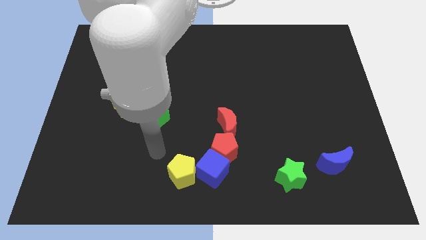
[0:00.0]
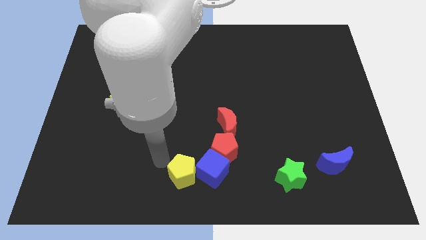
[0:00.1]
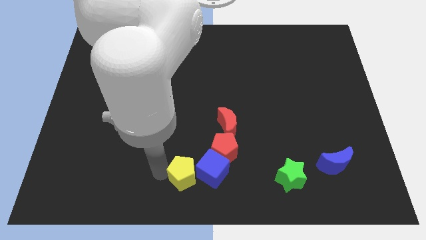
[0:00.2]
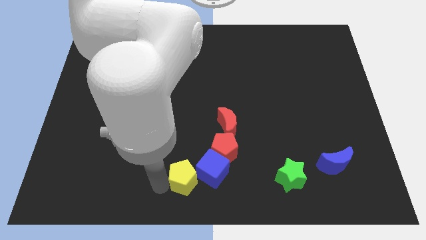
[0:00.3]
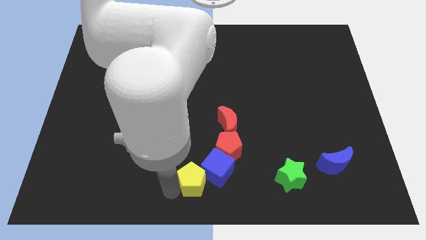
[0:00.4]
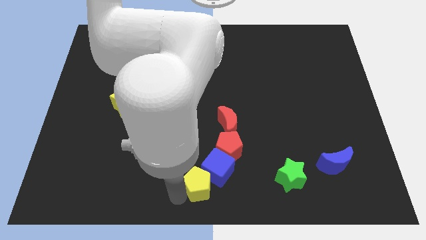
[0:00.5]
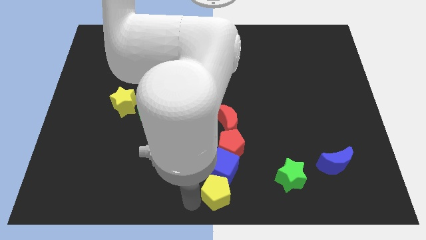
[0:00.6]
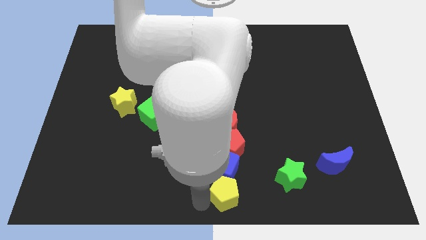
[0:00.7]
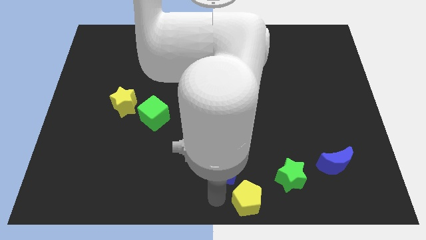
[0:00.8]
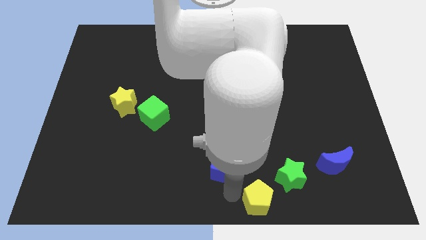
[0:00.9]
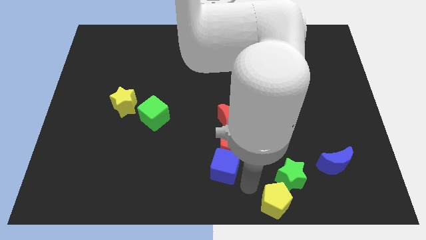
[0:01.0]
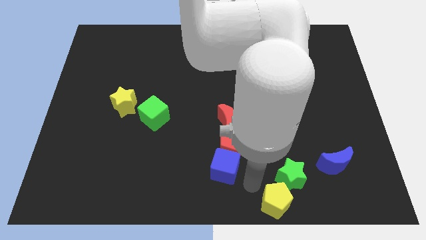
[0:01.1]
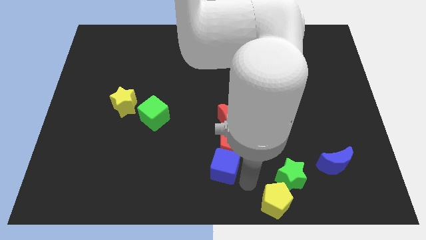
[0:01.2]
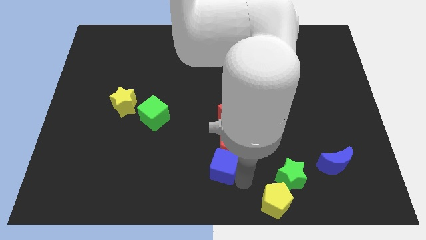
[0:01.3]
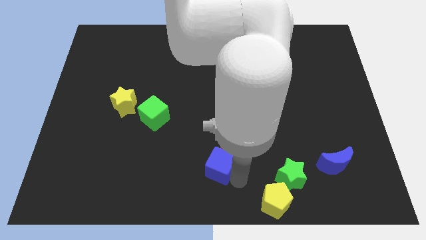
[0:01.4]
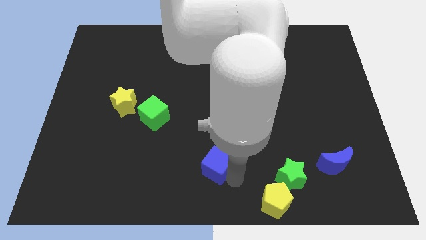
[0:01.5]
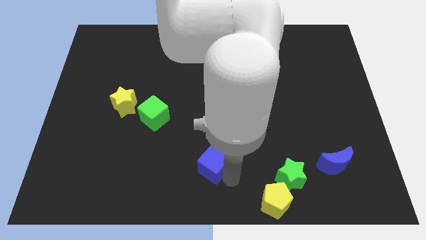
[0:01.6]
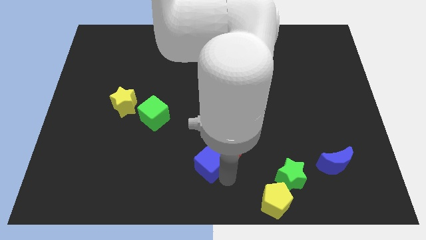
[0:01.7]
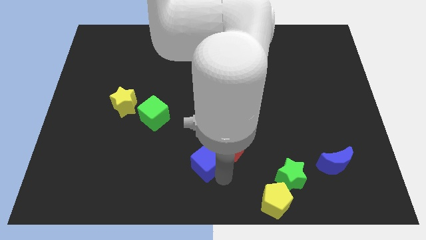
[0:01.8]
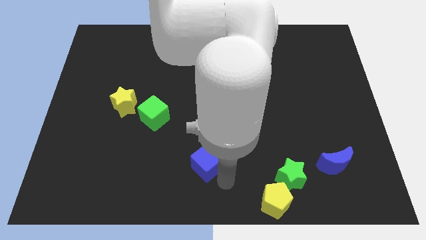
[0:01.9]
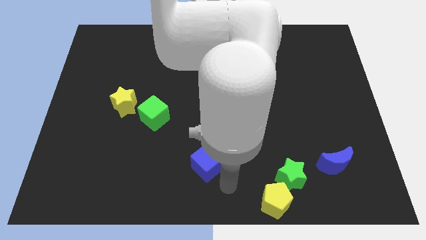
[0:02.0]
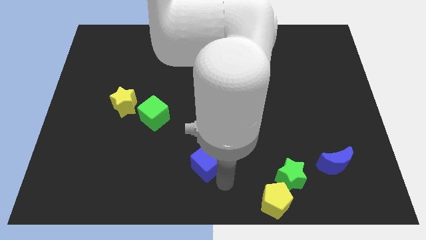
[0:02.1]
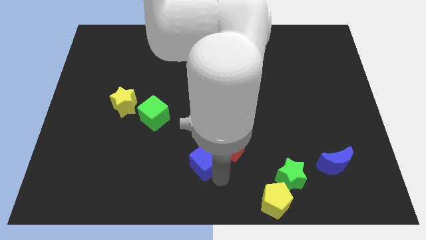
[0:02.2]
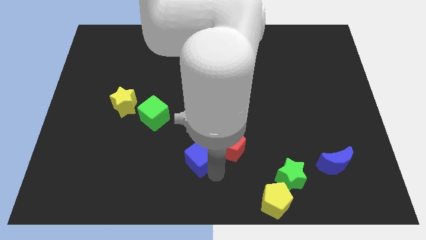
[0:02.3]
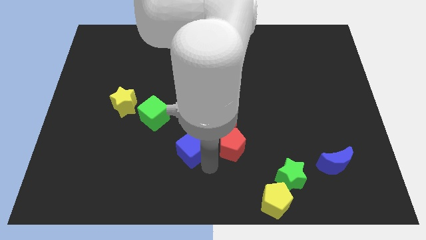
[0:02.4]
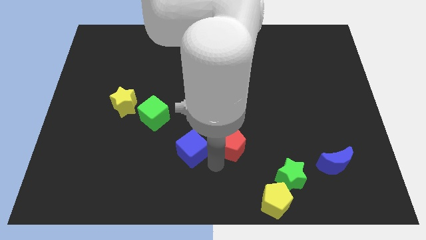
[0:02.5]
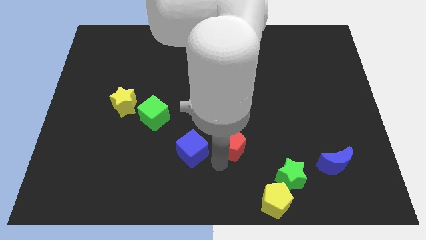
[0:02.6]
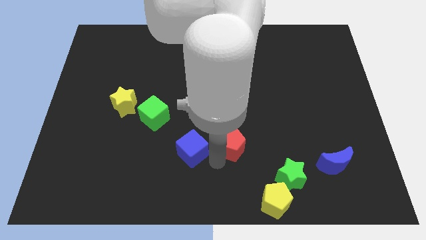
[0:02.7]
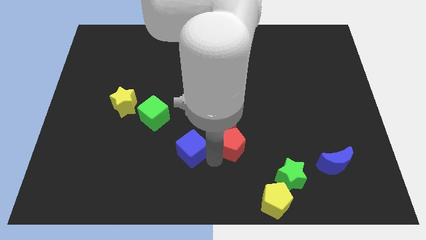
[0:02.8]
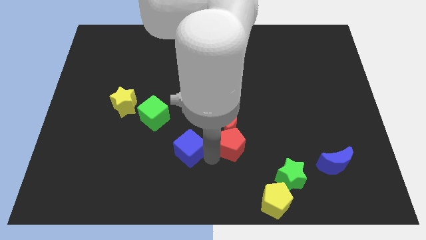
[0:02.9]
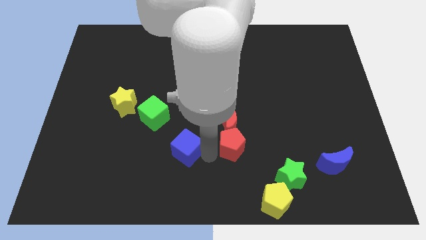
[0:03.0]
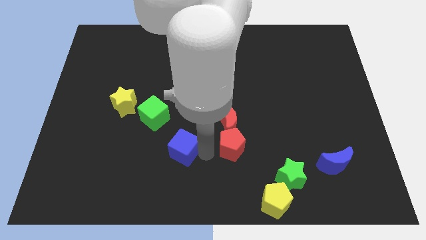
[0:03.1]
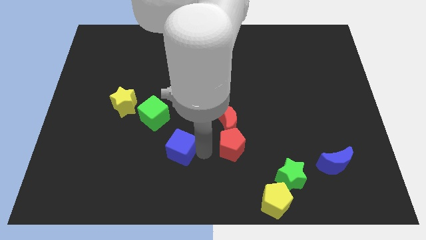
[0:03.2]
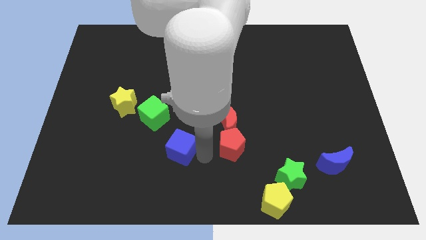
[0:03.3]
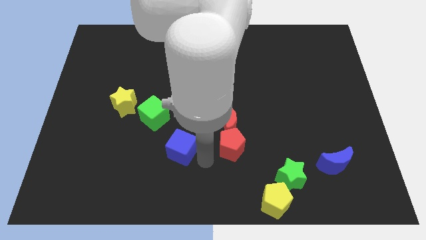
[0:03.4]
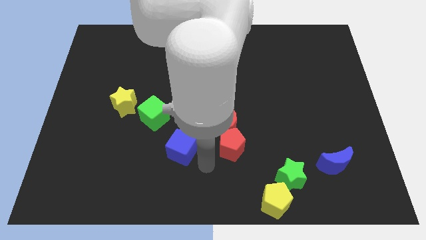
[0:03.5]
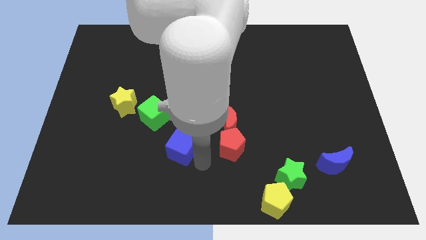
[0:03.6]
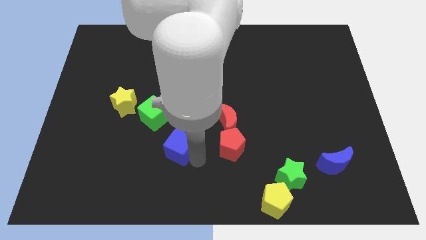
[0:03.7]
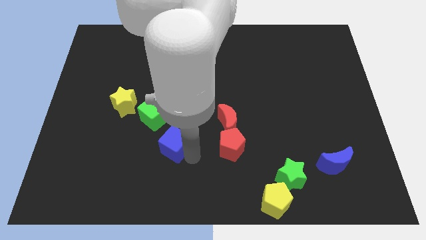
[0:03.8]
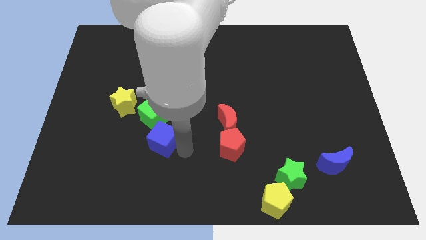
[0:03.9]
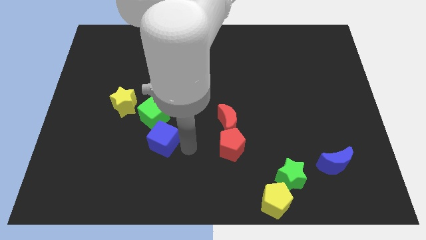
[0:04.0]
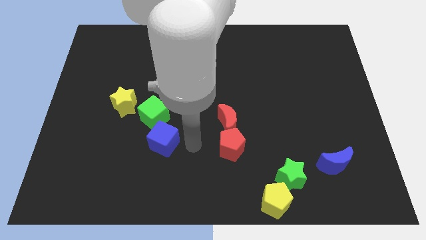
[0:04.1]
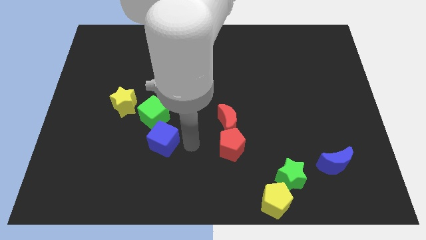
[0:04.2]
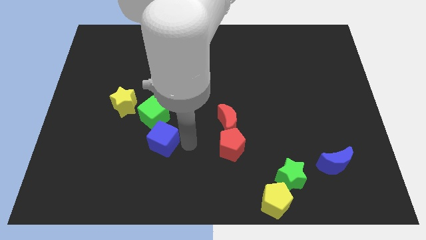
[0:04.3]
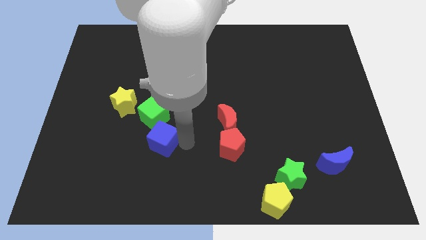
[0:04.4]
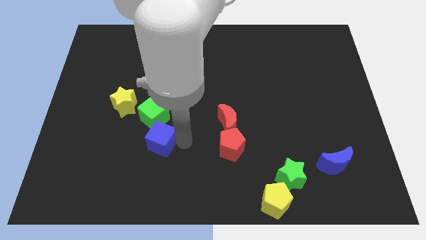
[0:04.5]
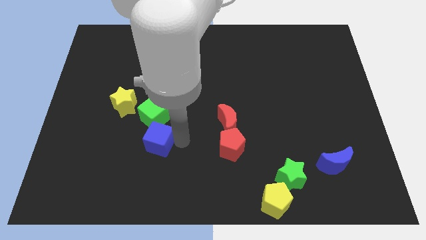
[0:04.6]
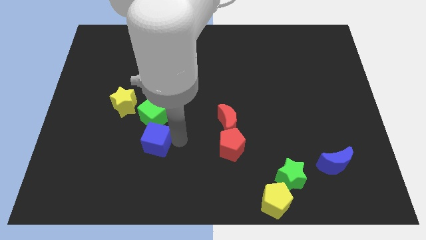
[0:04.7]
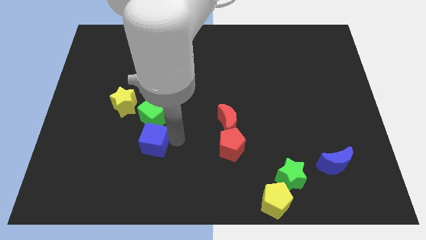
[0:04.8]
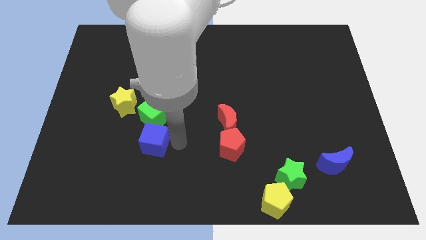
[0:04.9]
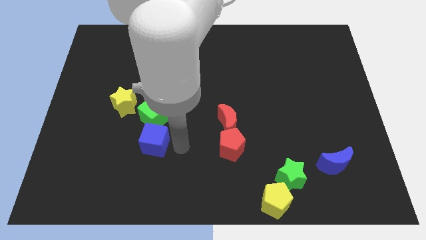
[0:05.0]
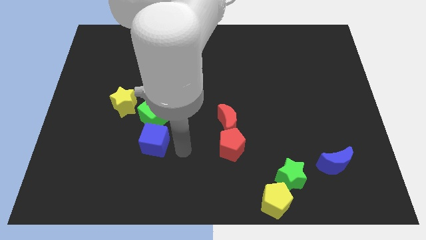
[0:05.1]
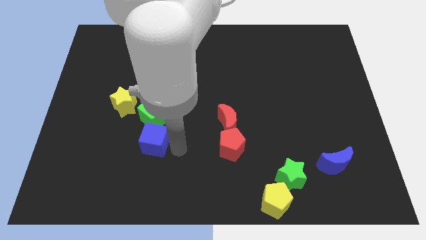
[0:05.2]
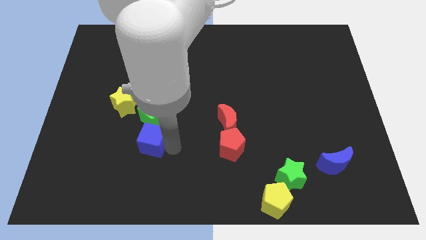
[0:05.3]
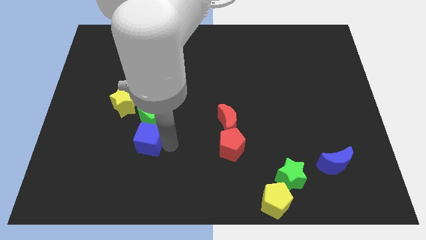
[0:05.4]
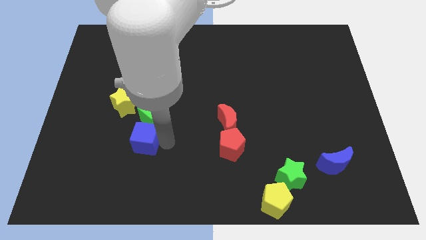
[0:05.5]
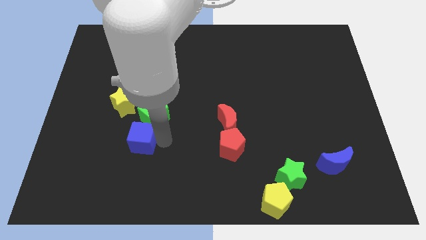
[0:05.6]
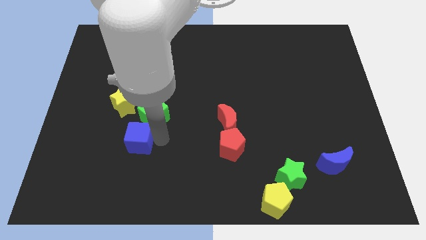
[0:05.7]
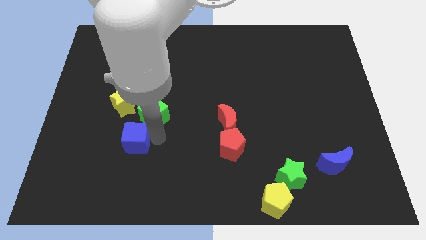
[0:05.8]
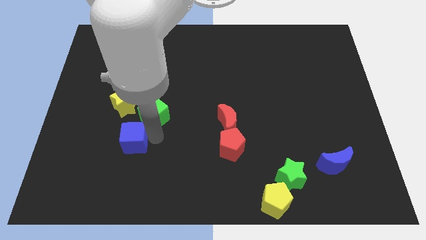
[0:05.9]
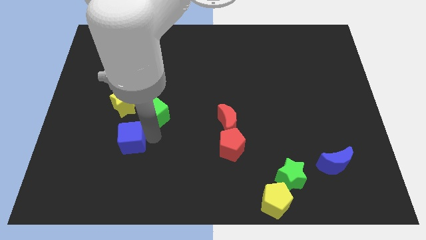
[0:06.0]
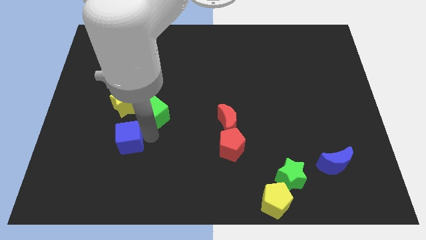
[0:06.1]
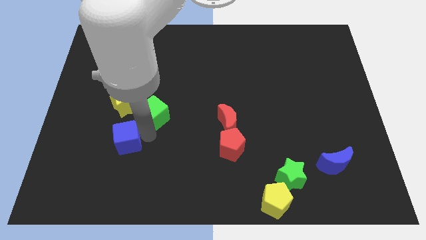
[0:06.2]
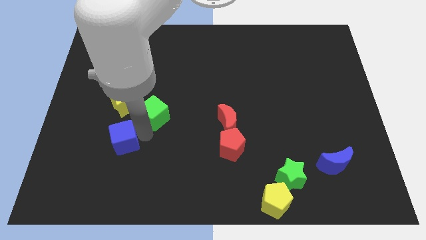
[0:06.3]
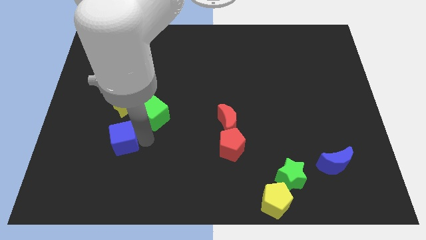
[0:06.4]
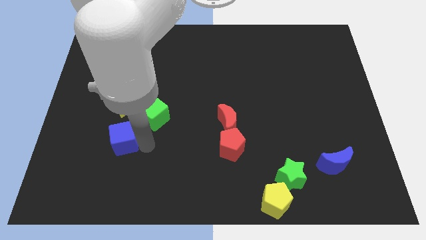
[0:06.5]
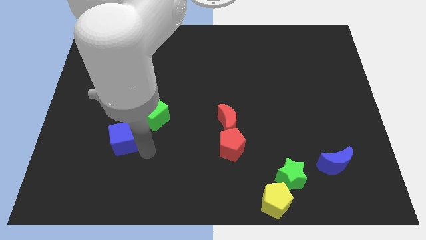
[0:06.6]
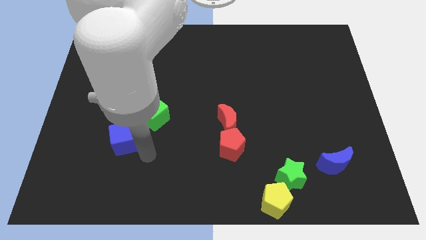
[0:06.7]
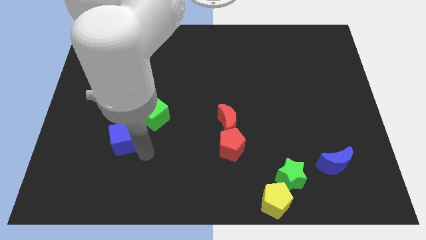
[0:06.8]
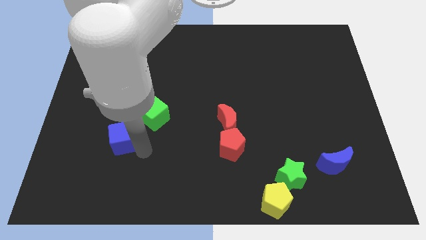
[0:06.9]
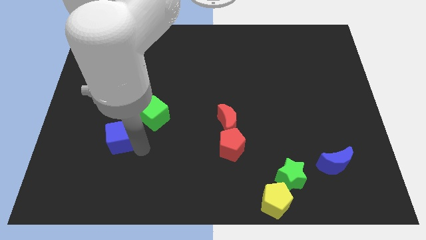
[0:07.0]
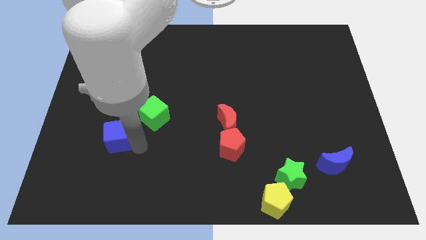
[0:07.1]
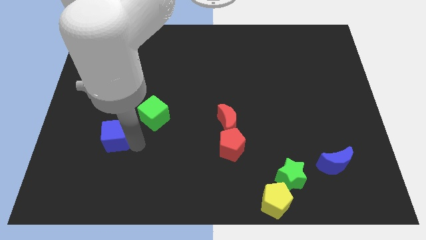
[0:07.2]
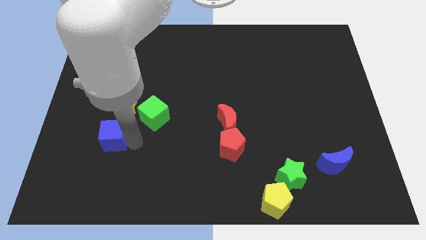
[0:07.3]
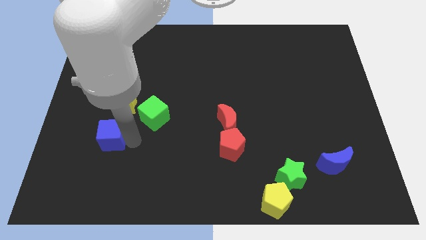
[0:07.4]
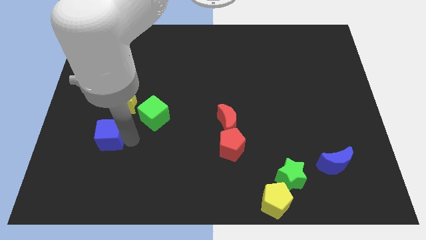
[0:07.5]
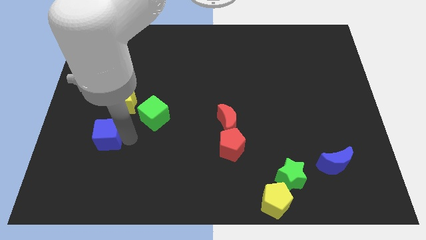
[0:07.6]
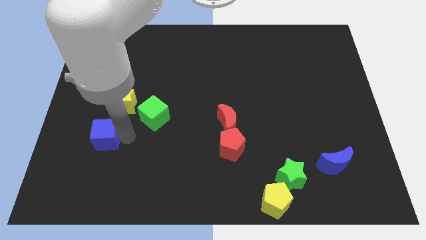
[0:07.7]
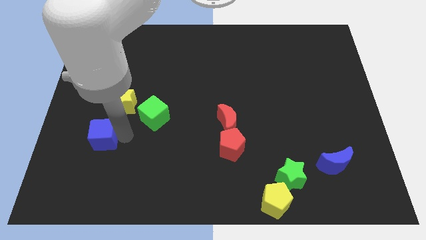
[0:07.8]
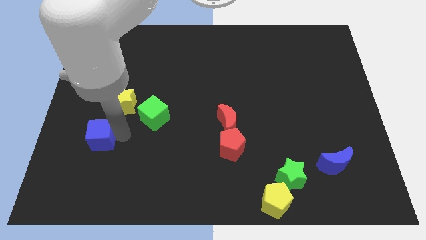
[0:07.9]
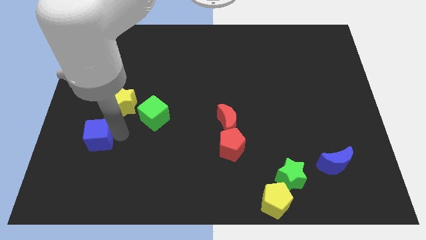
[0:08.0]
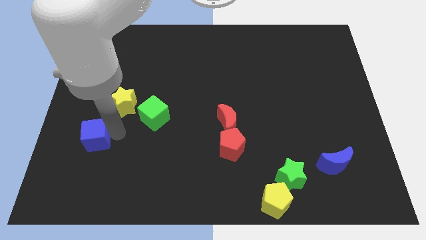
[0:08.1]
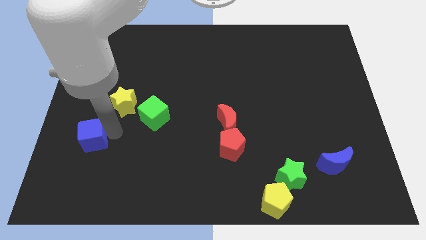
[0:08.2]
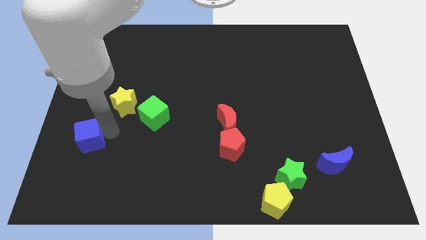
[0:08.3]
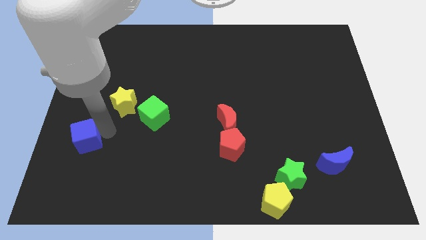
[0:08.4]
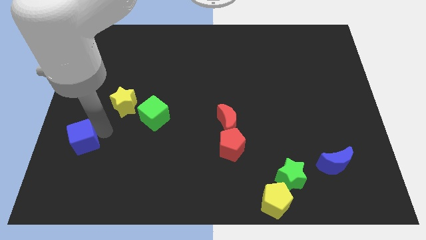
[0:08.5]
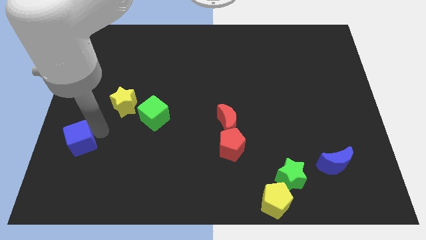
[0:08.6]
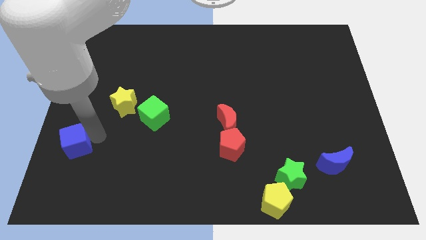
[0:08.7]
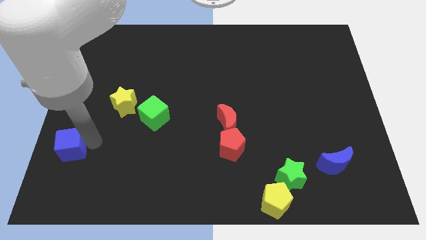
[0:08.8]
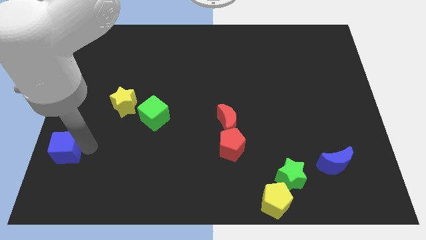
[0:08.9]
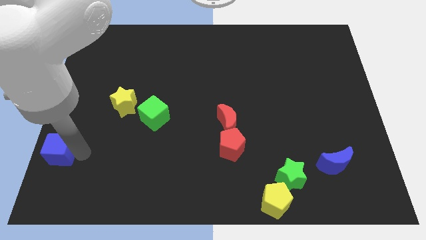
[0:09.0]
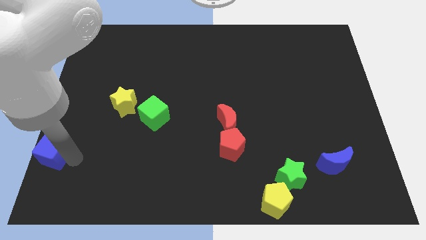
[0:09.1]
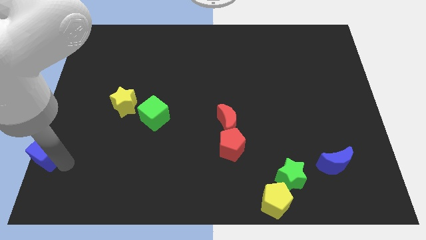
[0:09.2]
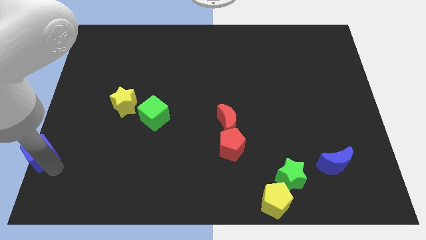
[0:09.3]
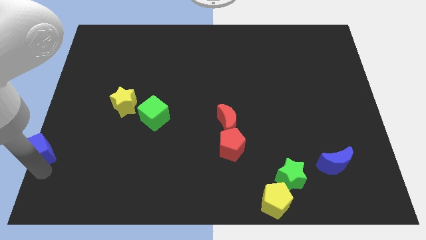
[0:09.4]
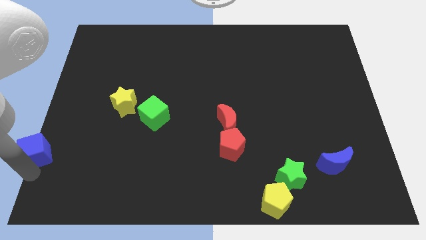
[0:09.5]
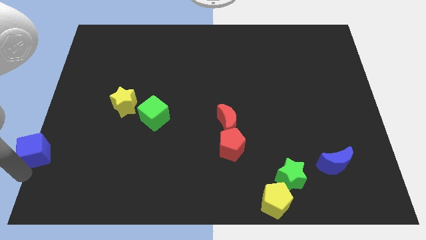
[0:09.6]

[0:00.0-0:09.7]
move the blue cube to the left side of the board
